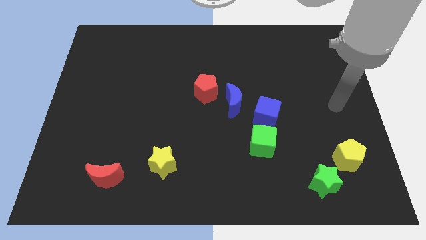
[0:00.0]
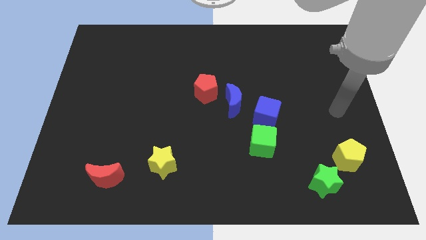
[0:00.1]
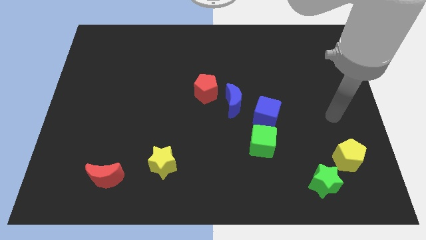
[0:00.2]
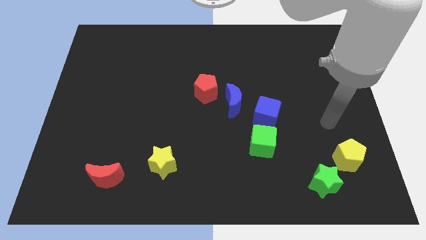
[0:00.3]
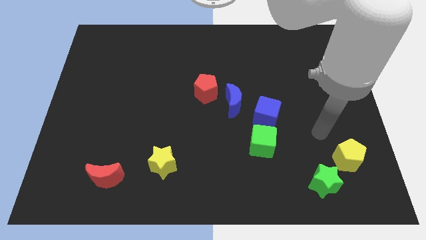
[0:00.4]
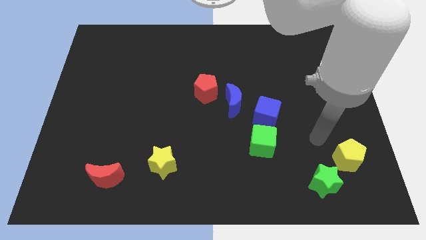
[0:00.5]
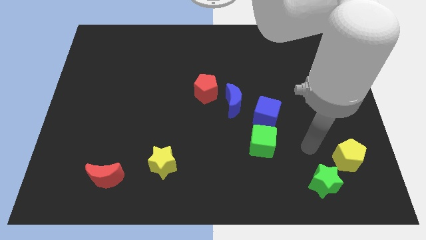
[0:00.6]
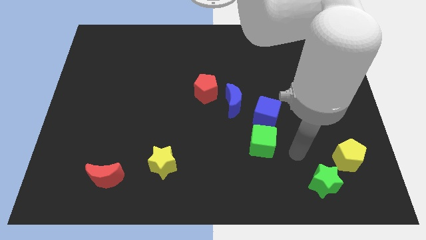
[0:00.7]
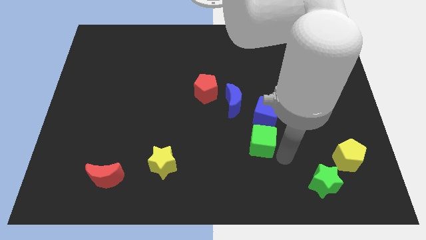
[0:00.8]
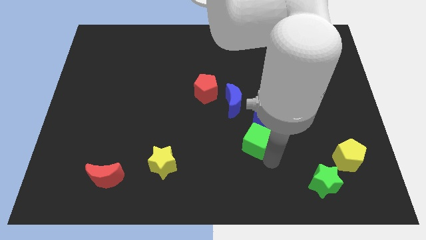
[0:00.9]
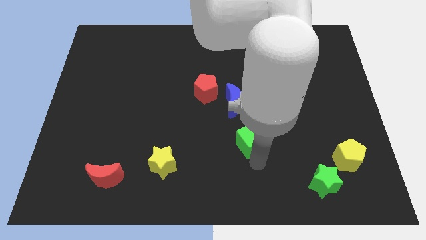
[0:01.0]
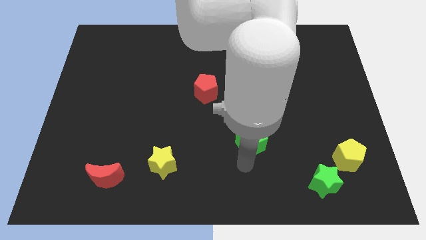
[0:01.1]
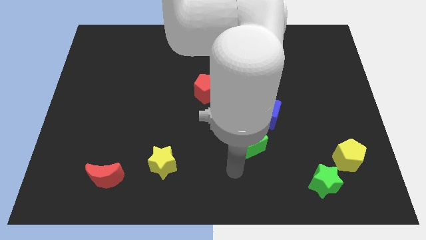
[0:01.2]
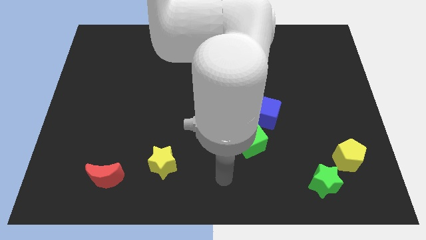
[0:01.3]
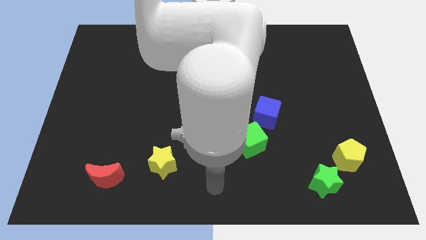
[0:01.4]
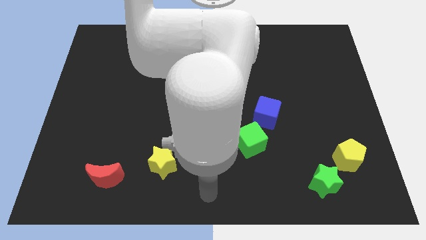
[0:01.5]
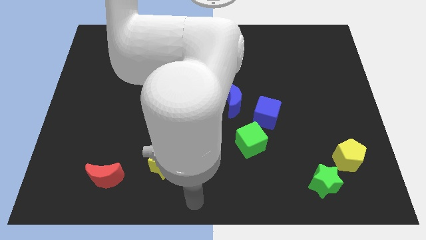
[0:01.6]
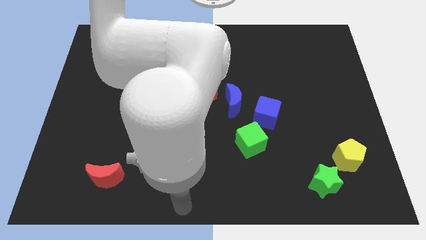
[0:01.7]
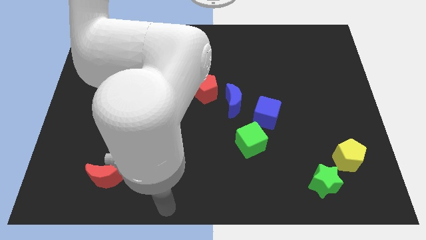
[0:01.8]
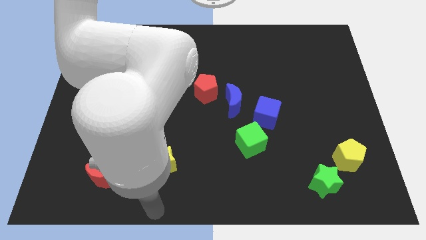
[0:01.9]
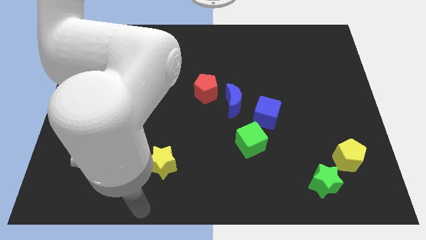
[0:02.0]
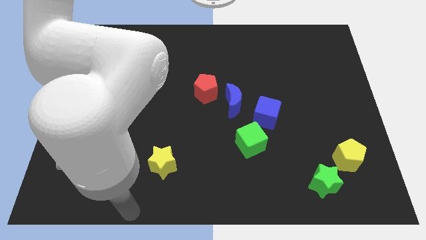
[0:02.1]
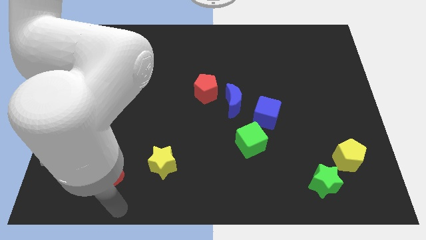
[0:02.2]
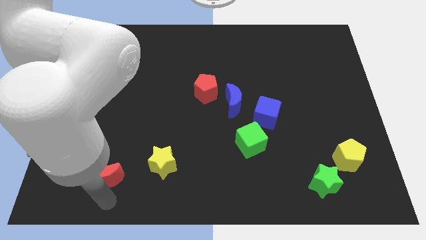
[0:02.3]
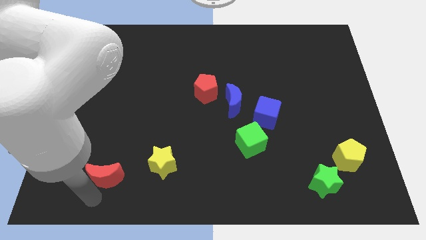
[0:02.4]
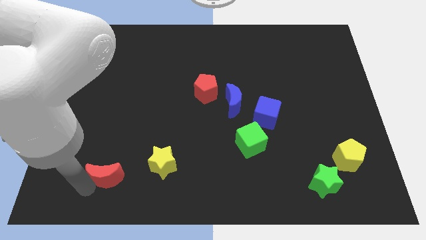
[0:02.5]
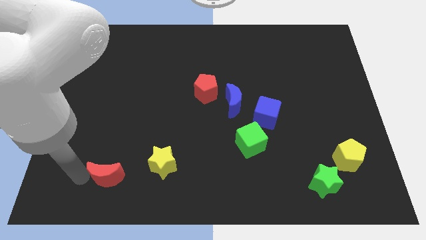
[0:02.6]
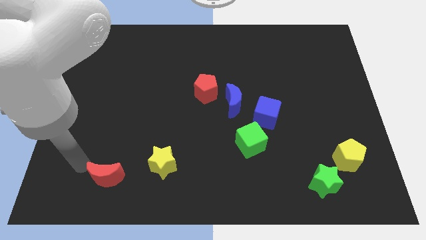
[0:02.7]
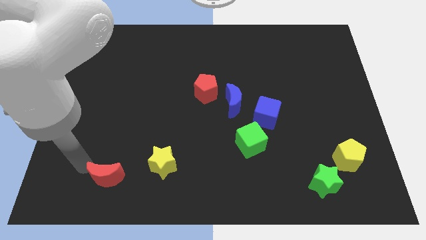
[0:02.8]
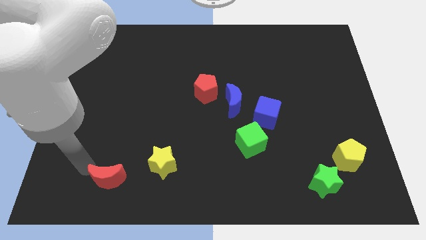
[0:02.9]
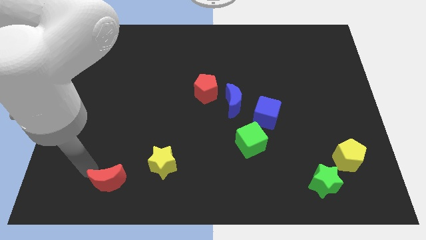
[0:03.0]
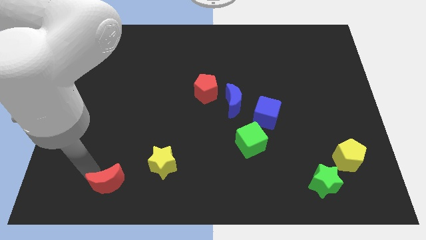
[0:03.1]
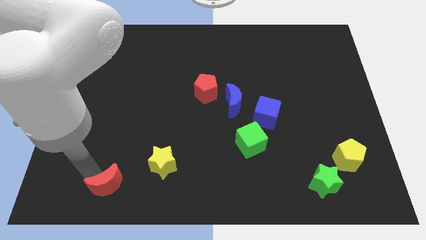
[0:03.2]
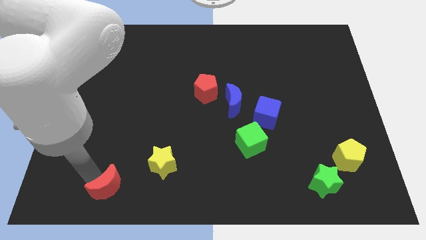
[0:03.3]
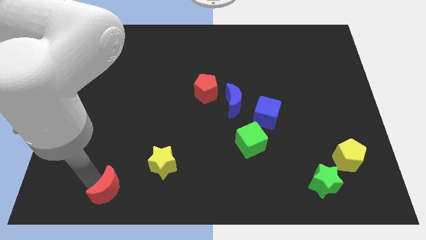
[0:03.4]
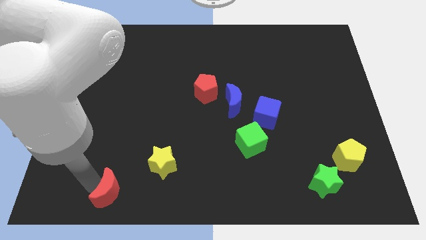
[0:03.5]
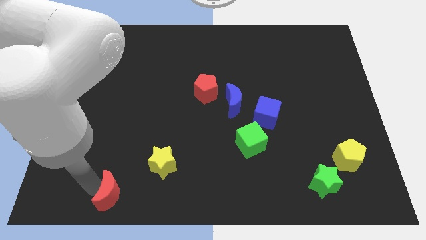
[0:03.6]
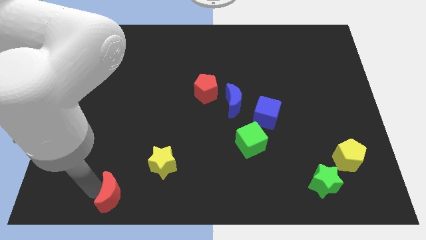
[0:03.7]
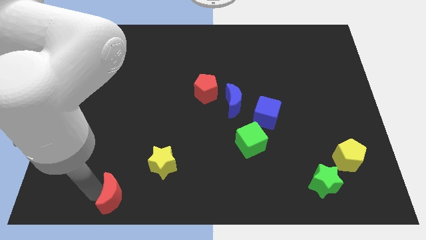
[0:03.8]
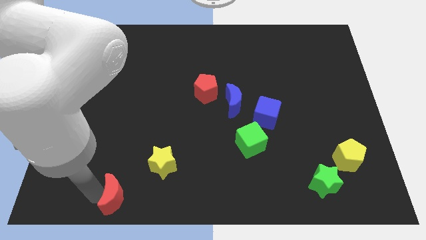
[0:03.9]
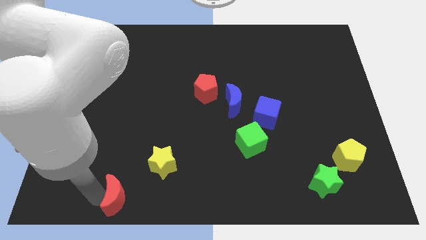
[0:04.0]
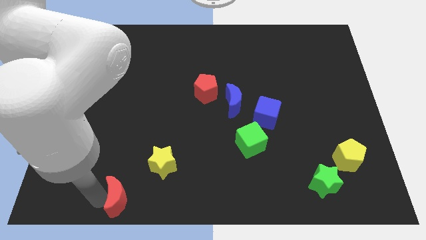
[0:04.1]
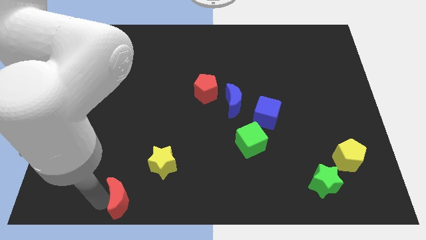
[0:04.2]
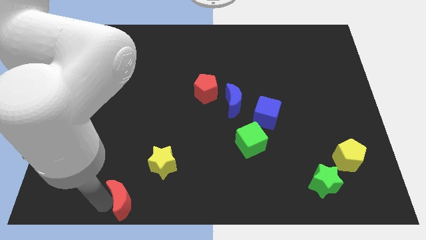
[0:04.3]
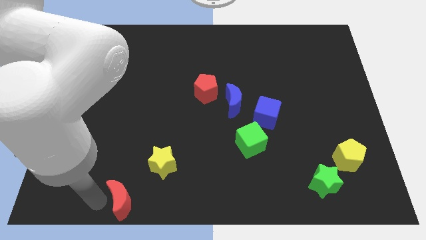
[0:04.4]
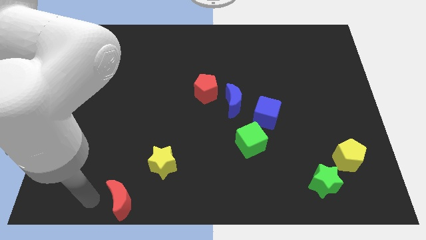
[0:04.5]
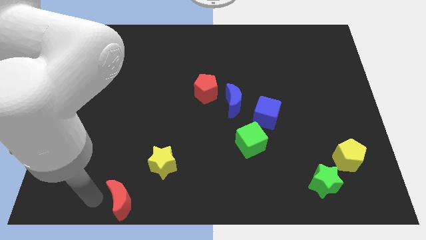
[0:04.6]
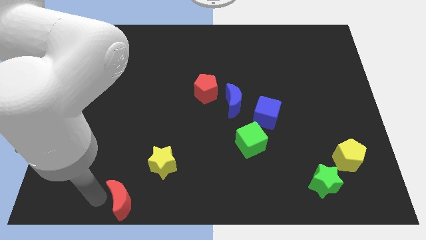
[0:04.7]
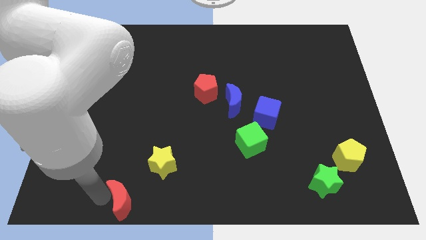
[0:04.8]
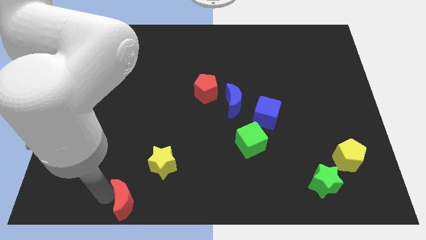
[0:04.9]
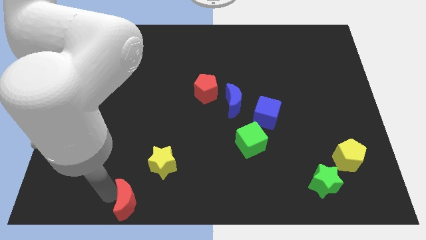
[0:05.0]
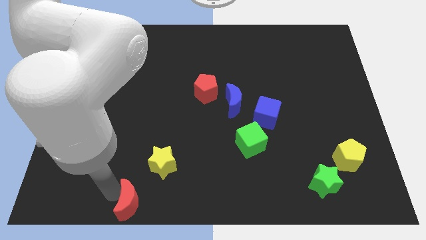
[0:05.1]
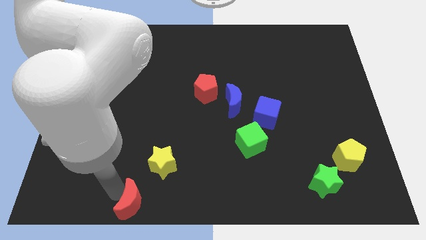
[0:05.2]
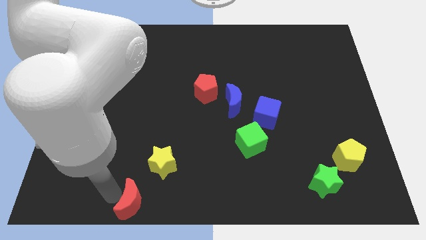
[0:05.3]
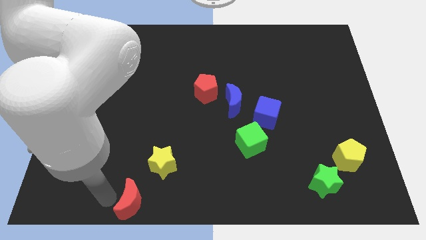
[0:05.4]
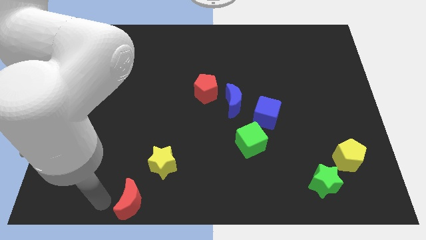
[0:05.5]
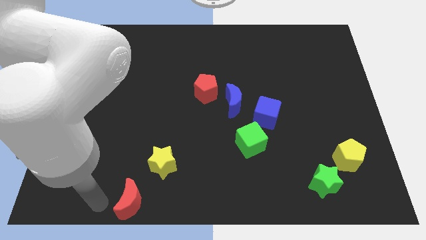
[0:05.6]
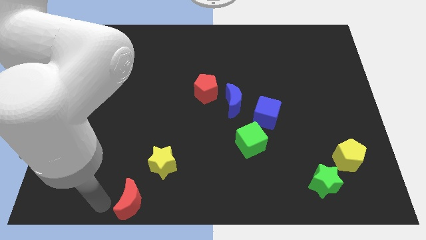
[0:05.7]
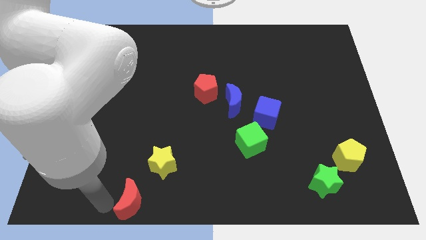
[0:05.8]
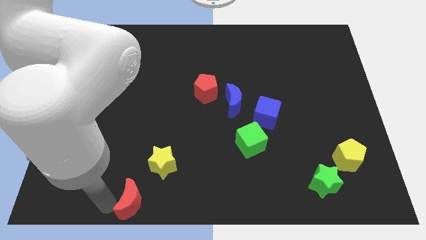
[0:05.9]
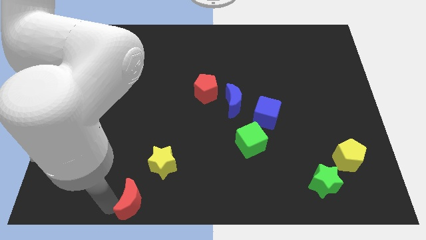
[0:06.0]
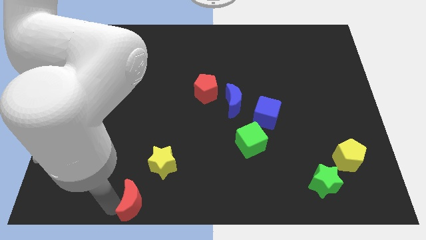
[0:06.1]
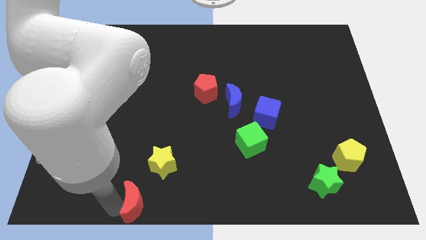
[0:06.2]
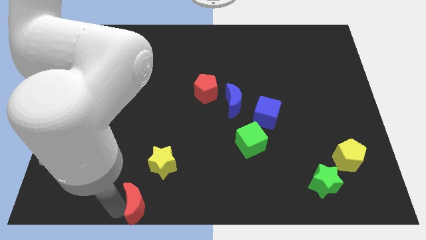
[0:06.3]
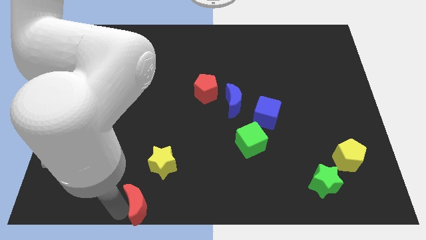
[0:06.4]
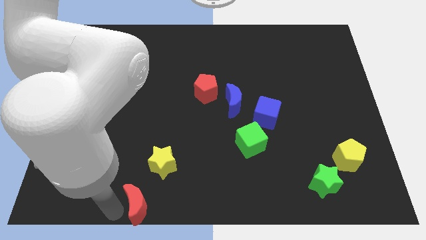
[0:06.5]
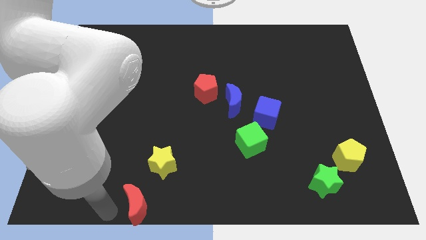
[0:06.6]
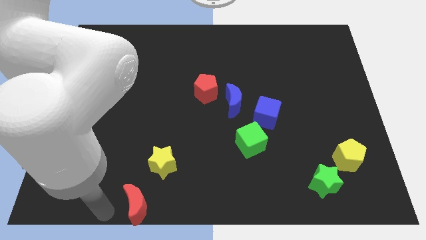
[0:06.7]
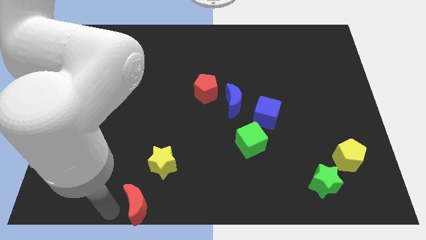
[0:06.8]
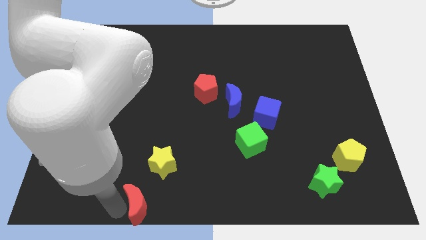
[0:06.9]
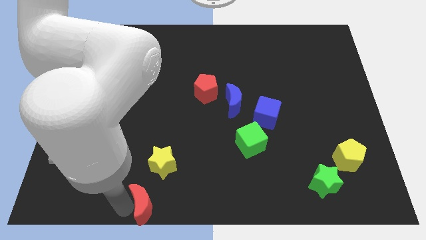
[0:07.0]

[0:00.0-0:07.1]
slide the red moon to the bottom
